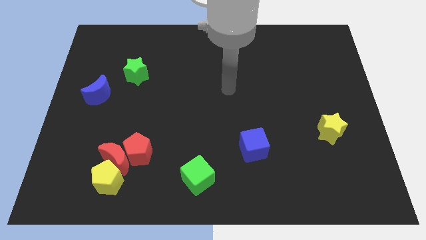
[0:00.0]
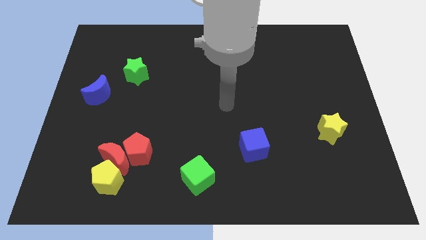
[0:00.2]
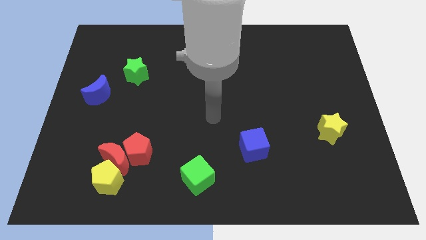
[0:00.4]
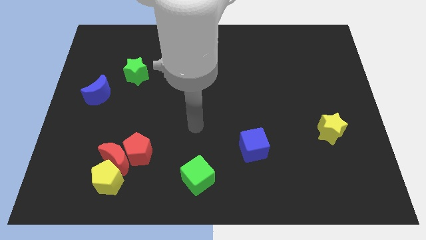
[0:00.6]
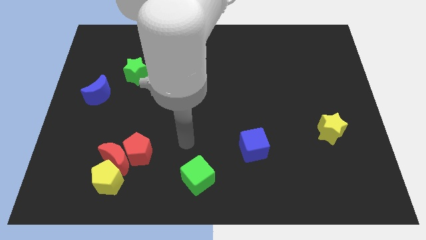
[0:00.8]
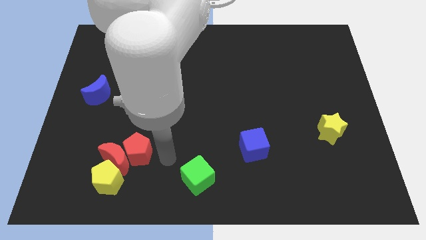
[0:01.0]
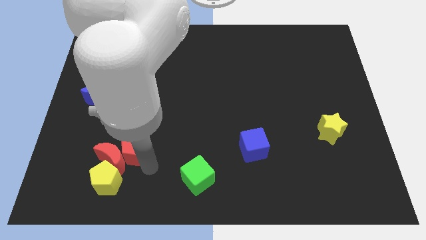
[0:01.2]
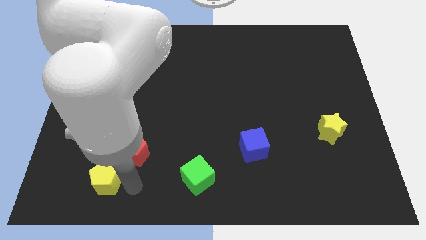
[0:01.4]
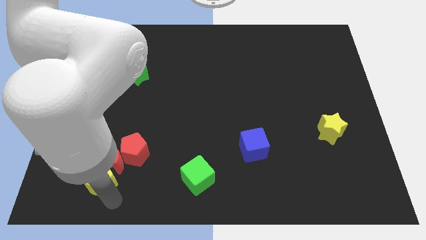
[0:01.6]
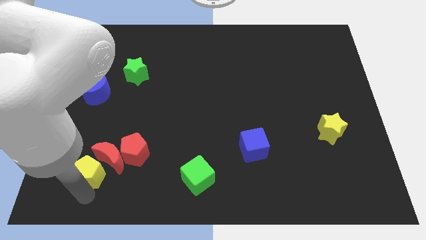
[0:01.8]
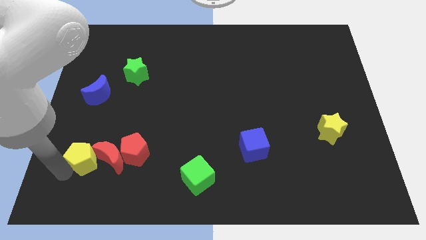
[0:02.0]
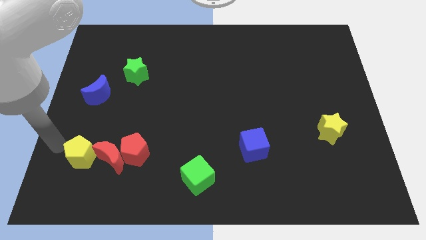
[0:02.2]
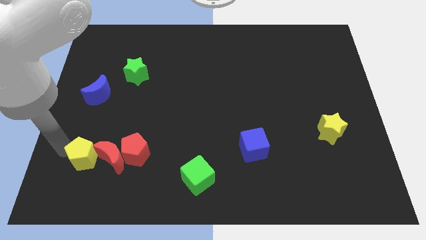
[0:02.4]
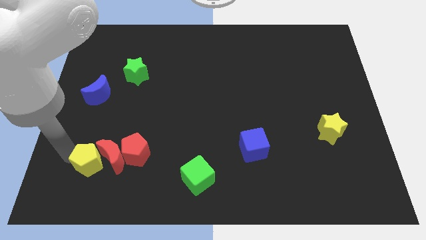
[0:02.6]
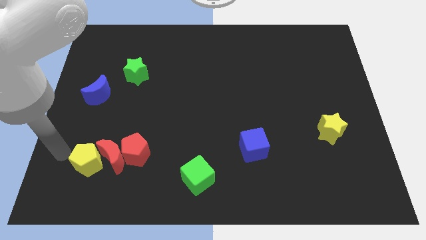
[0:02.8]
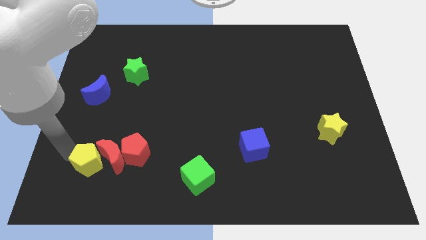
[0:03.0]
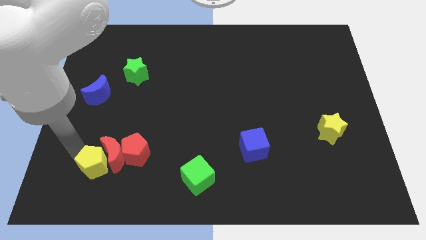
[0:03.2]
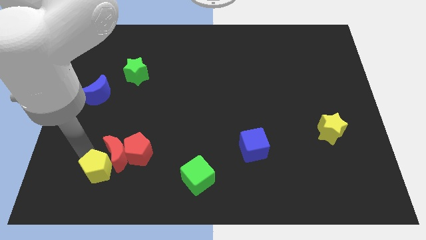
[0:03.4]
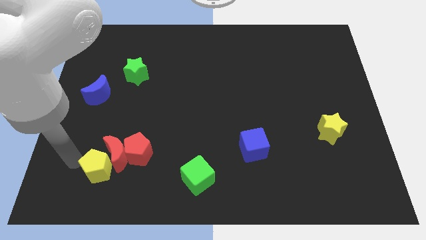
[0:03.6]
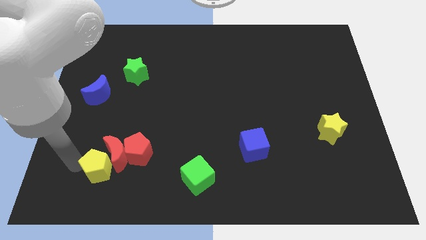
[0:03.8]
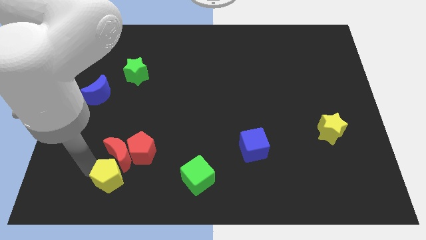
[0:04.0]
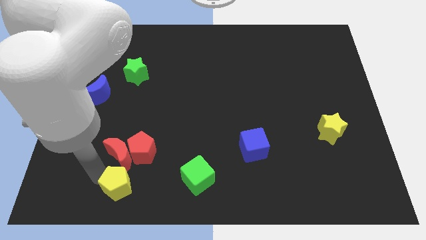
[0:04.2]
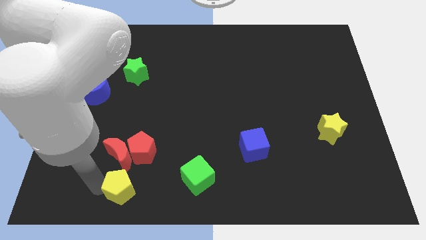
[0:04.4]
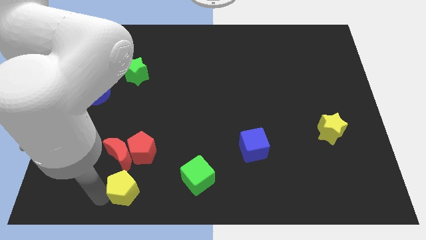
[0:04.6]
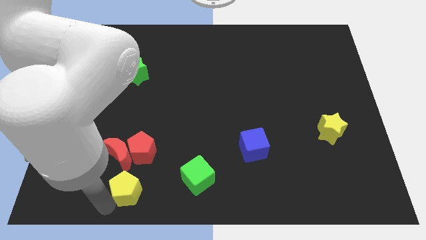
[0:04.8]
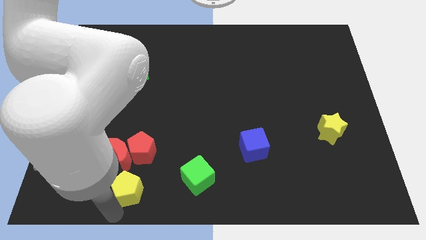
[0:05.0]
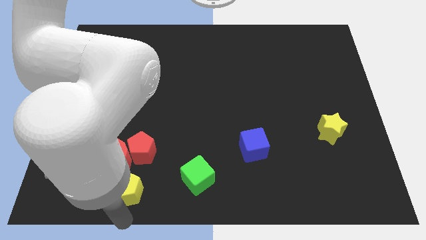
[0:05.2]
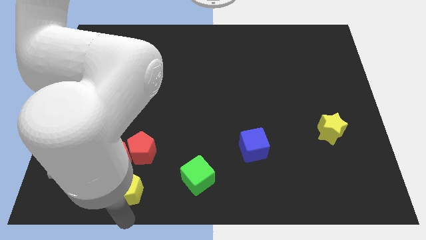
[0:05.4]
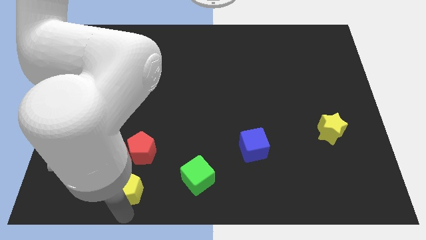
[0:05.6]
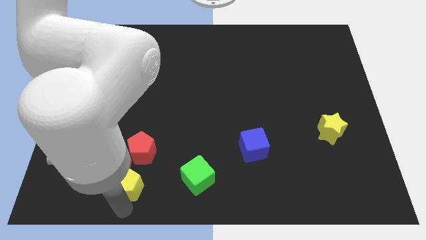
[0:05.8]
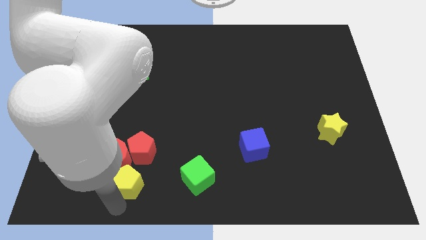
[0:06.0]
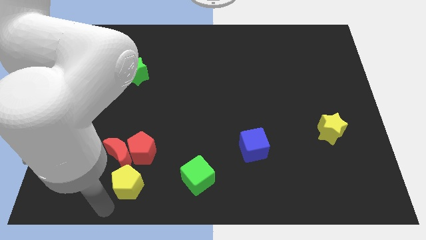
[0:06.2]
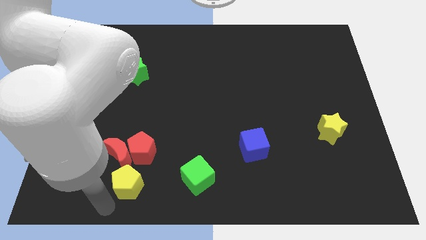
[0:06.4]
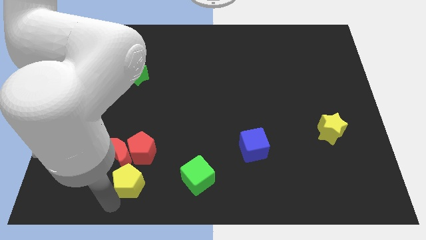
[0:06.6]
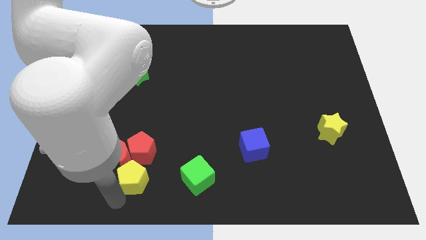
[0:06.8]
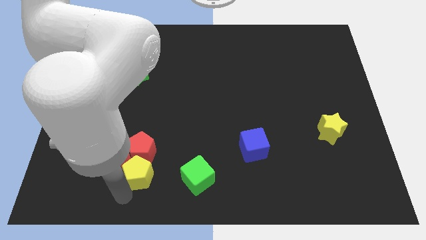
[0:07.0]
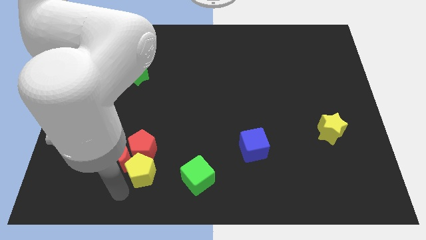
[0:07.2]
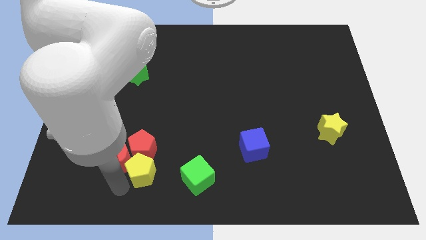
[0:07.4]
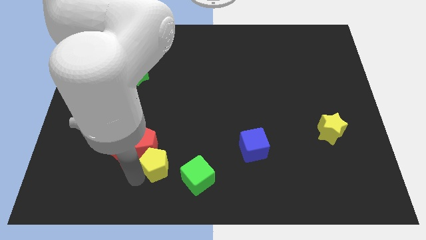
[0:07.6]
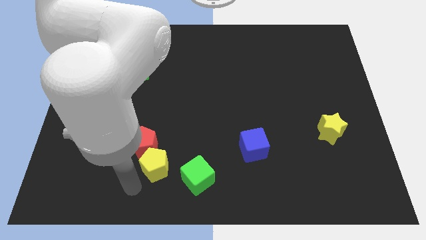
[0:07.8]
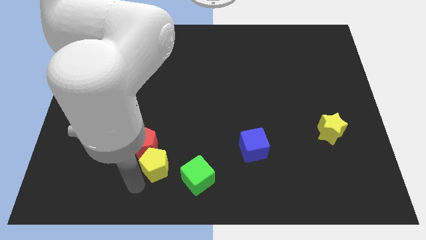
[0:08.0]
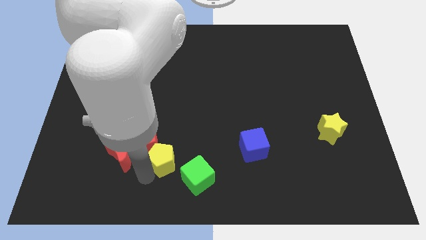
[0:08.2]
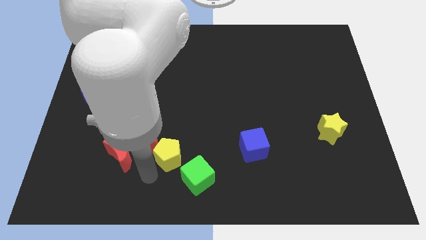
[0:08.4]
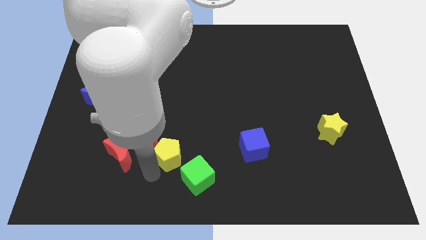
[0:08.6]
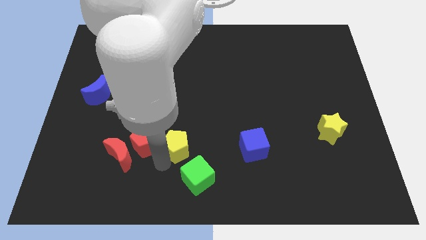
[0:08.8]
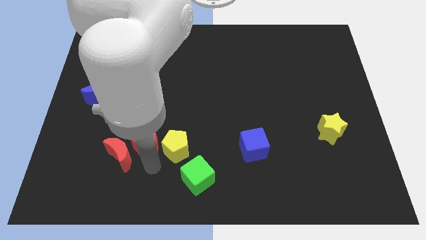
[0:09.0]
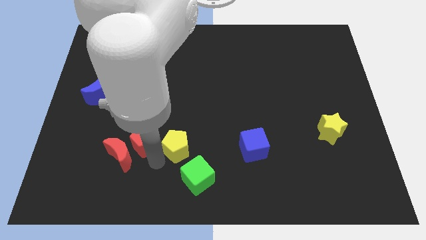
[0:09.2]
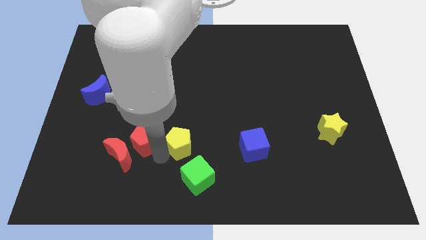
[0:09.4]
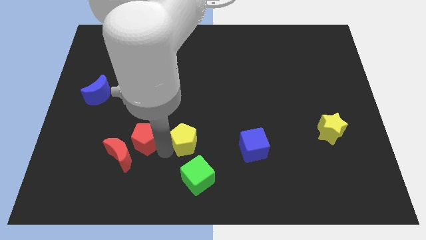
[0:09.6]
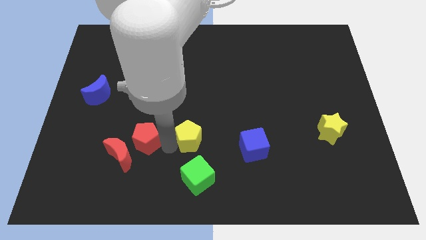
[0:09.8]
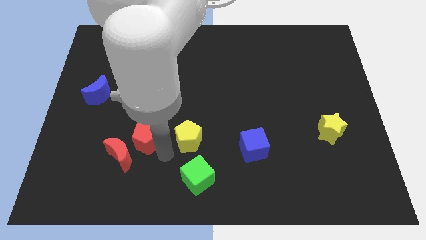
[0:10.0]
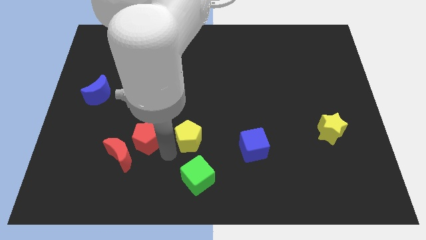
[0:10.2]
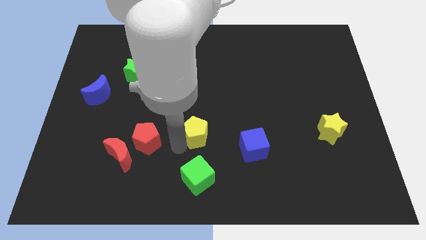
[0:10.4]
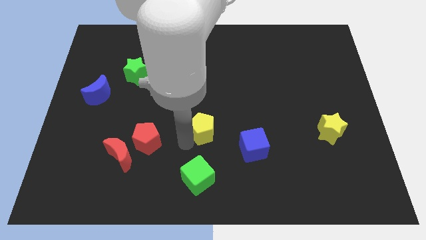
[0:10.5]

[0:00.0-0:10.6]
push the yellow pentagon diagonally up and to the right

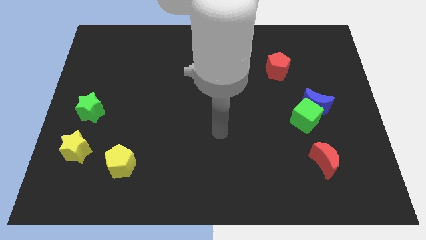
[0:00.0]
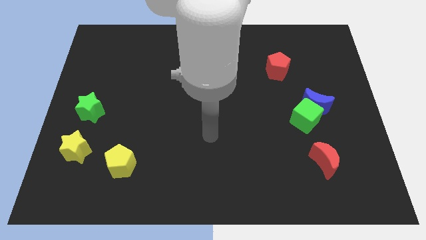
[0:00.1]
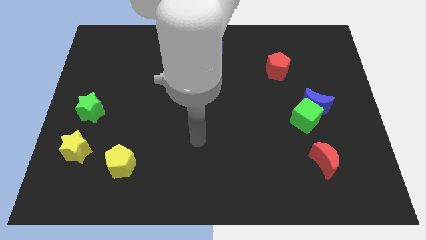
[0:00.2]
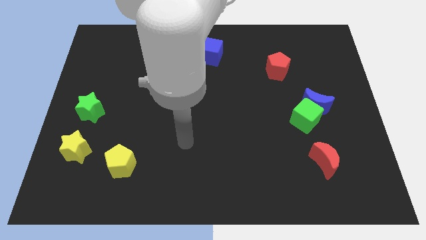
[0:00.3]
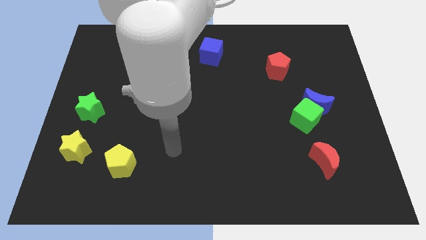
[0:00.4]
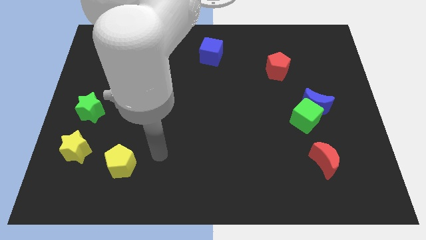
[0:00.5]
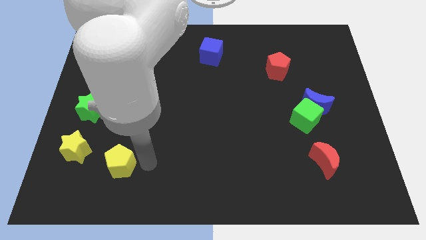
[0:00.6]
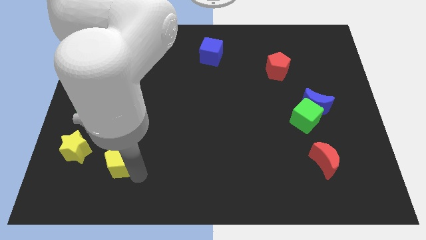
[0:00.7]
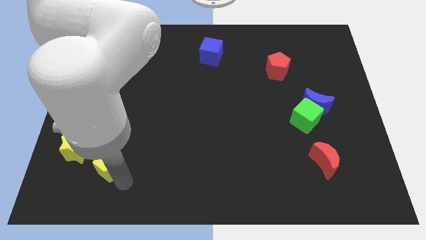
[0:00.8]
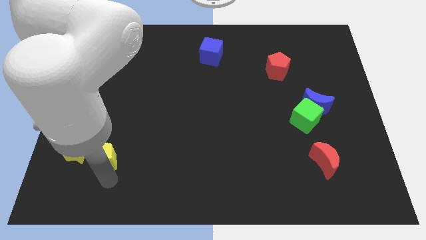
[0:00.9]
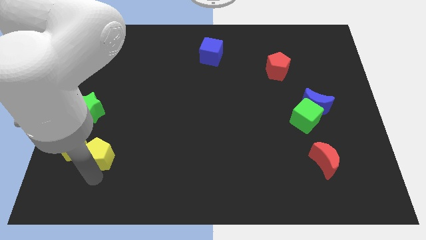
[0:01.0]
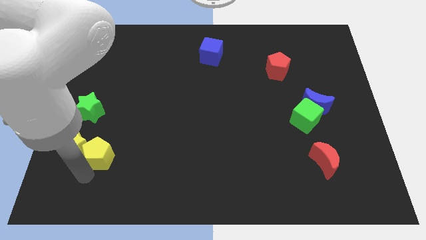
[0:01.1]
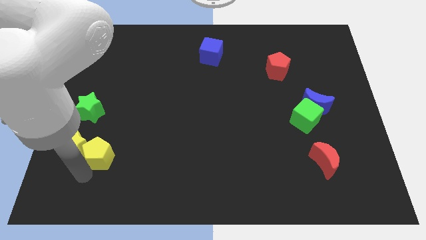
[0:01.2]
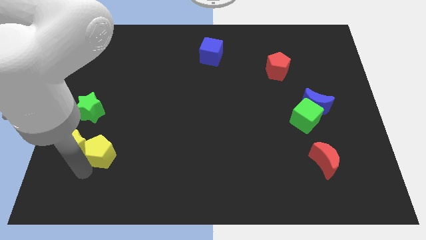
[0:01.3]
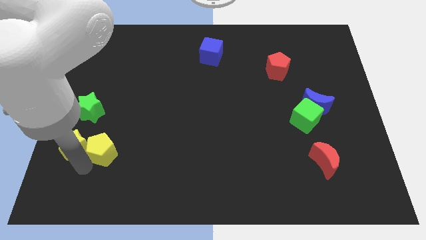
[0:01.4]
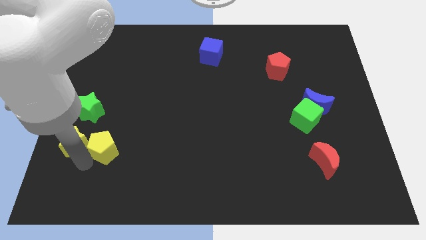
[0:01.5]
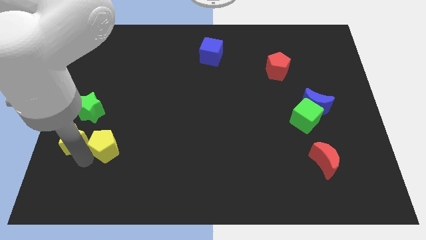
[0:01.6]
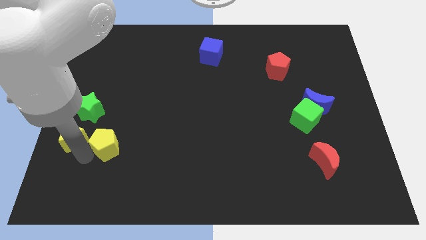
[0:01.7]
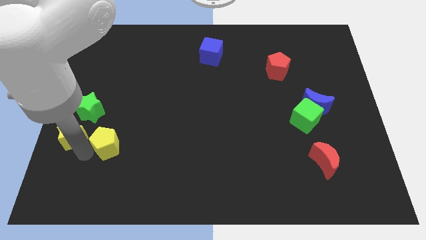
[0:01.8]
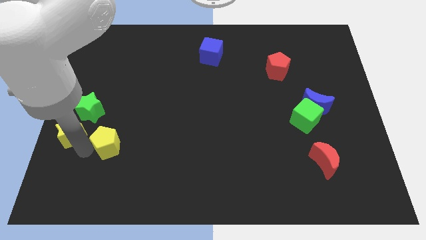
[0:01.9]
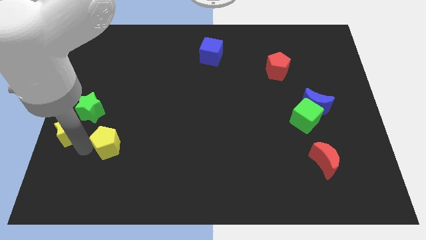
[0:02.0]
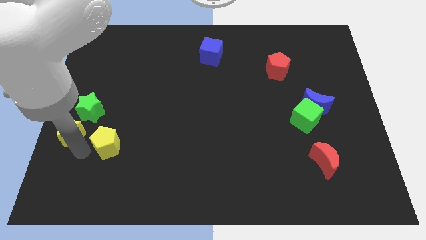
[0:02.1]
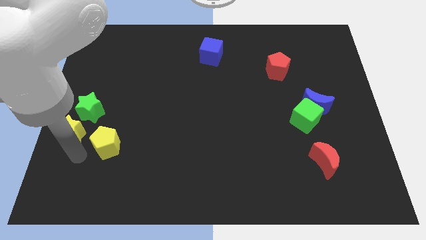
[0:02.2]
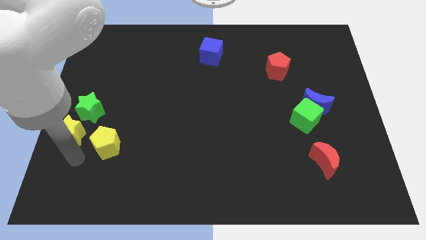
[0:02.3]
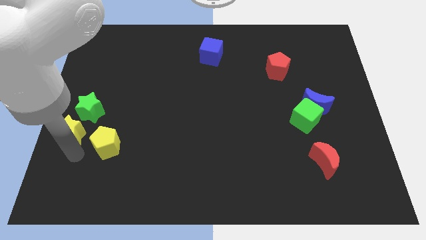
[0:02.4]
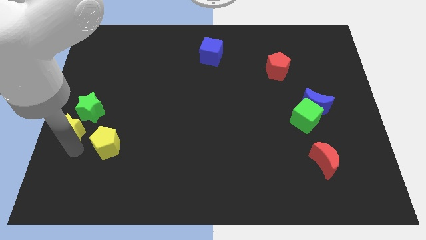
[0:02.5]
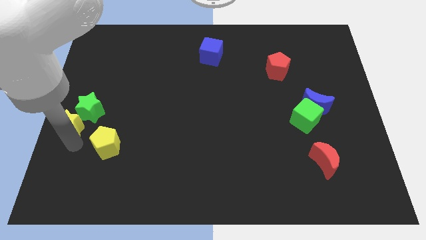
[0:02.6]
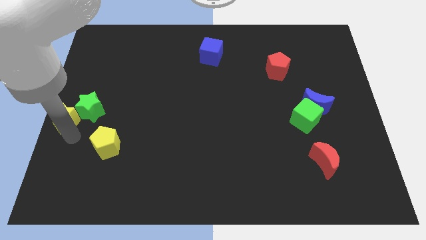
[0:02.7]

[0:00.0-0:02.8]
push the yellow star up a bit

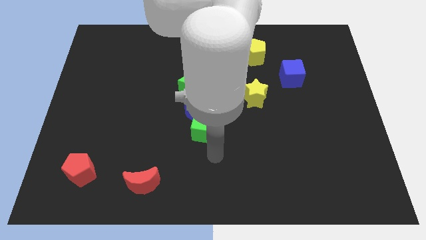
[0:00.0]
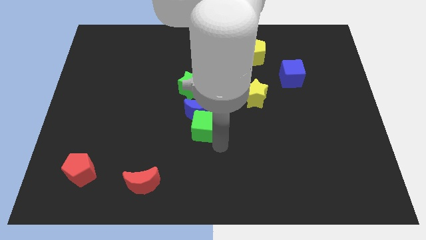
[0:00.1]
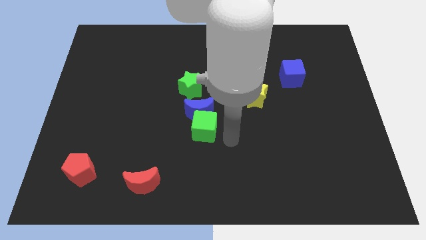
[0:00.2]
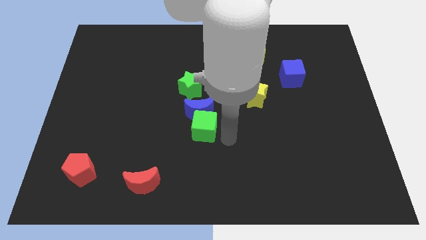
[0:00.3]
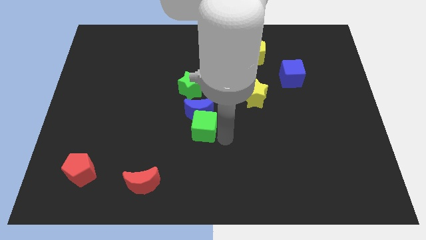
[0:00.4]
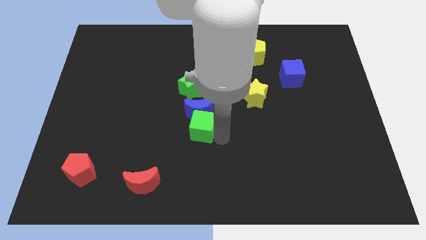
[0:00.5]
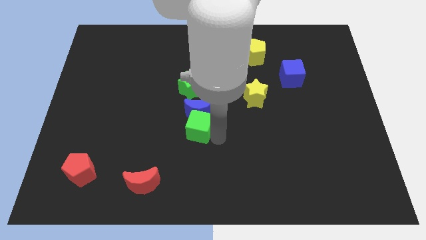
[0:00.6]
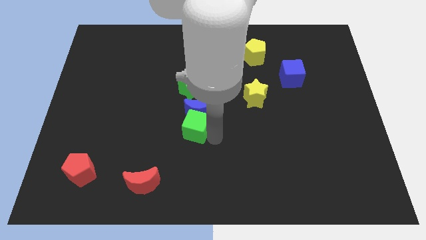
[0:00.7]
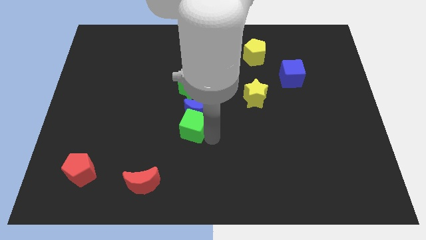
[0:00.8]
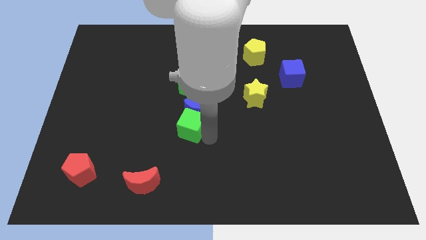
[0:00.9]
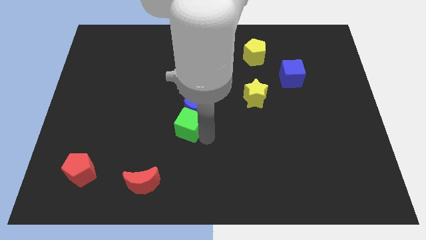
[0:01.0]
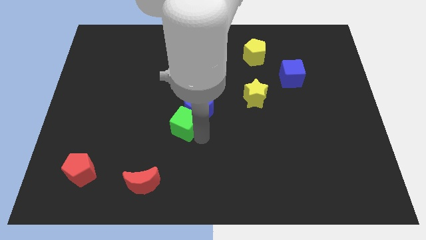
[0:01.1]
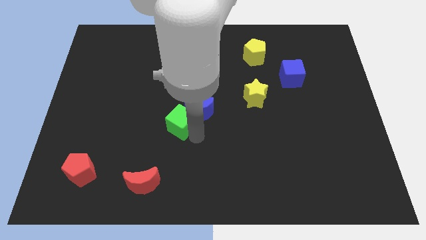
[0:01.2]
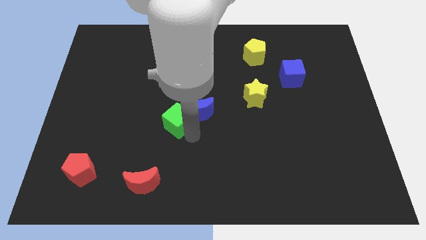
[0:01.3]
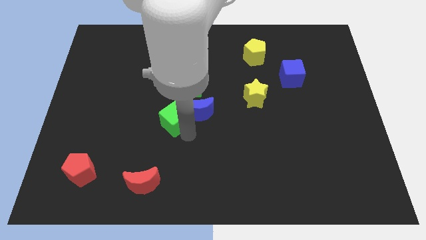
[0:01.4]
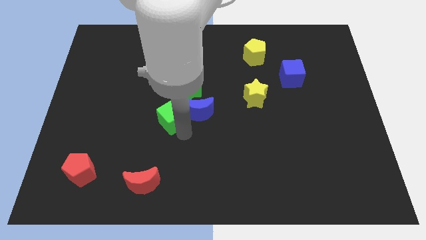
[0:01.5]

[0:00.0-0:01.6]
slightly slide the green cube diagonally up and to the left
